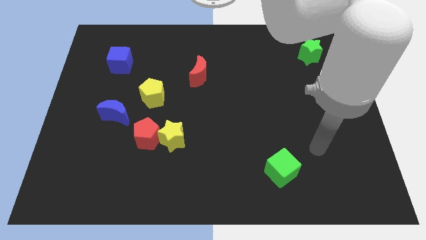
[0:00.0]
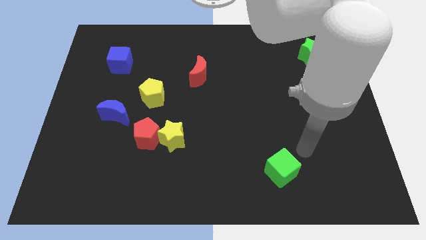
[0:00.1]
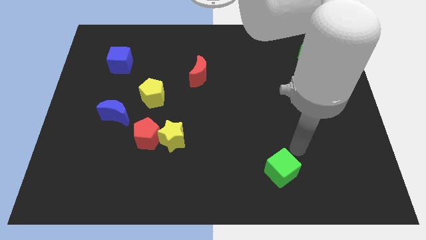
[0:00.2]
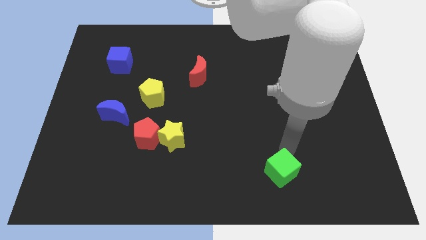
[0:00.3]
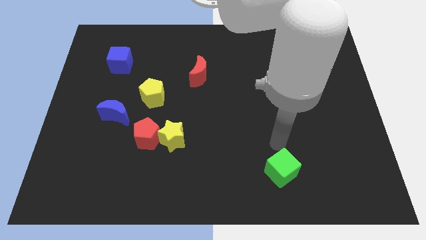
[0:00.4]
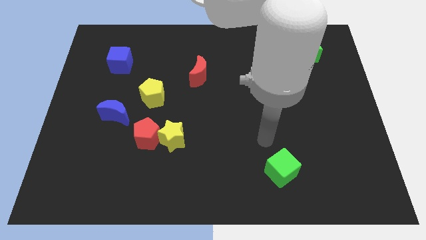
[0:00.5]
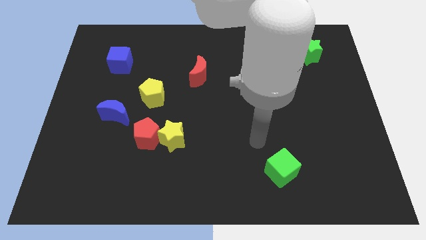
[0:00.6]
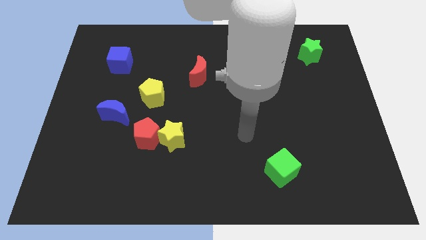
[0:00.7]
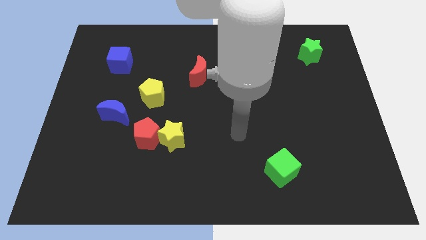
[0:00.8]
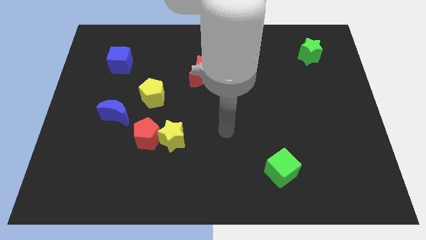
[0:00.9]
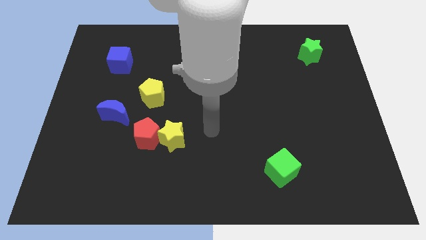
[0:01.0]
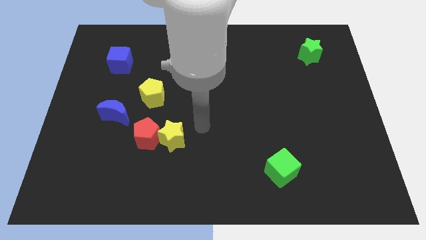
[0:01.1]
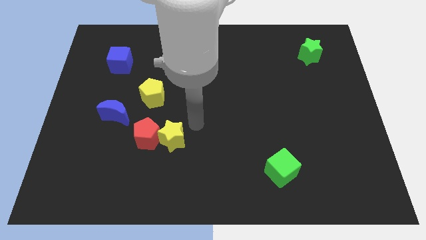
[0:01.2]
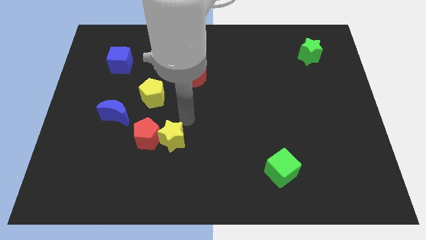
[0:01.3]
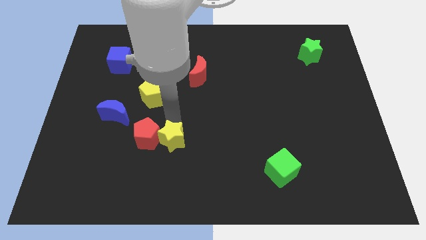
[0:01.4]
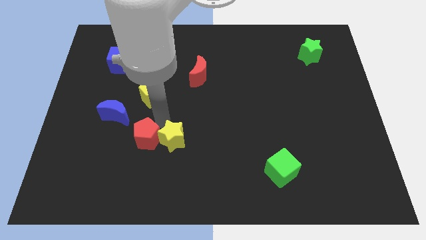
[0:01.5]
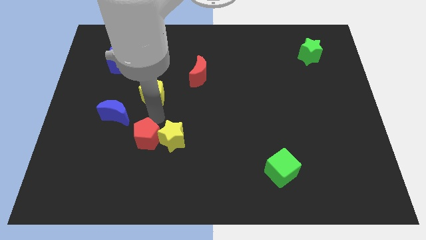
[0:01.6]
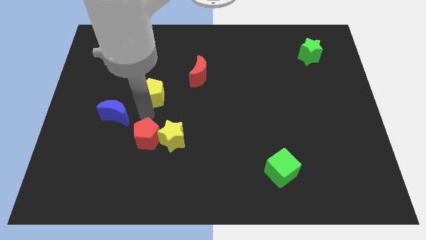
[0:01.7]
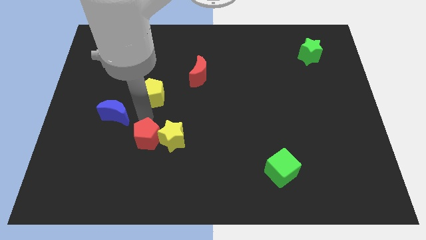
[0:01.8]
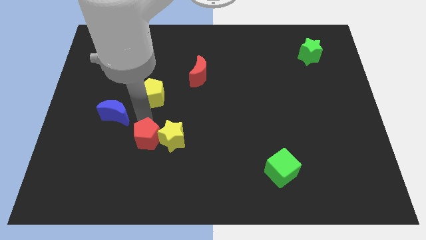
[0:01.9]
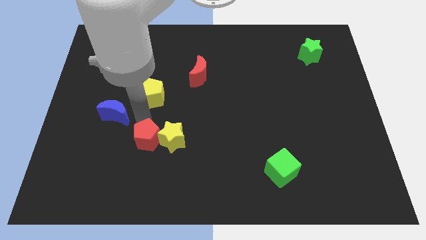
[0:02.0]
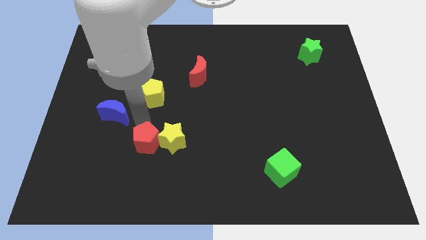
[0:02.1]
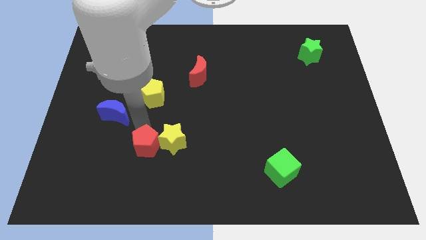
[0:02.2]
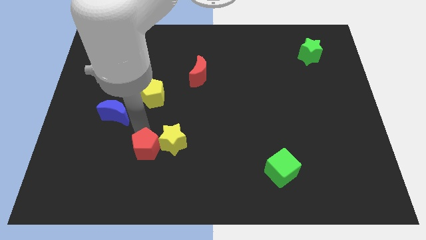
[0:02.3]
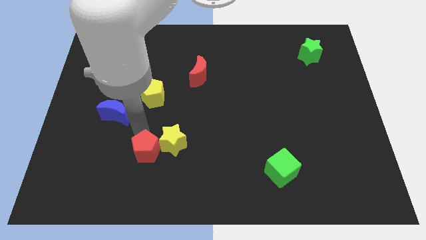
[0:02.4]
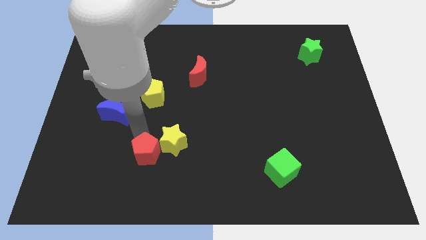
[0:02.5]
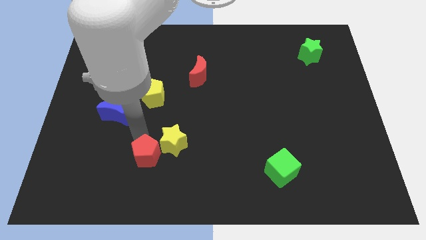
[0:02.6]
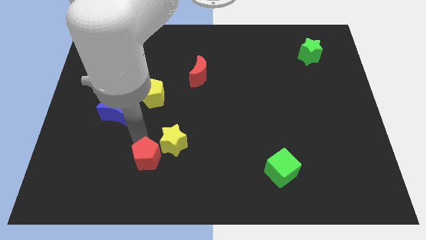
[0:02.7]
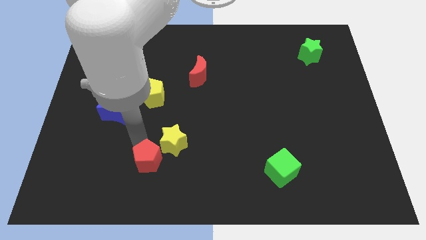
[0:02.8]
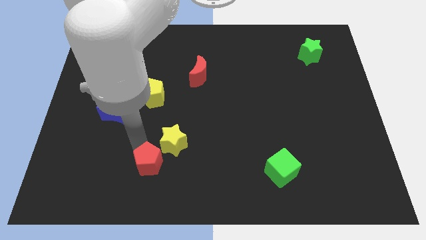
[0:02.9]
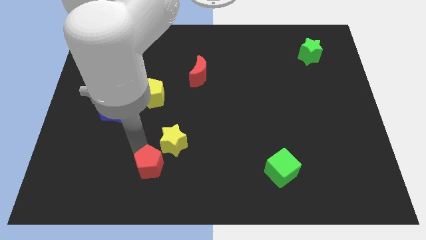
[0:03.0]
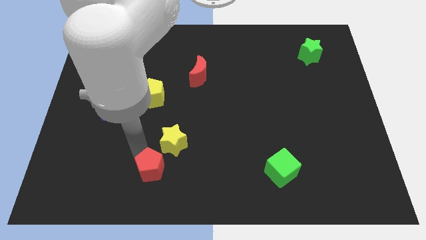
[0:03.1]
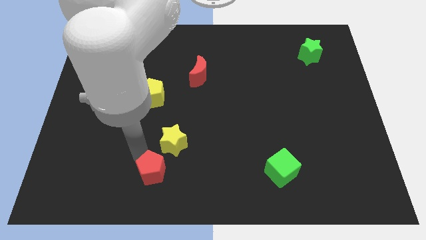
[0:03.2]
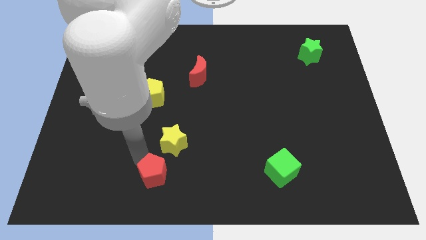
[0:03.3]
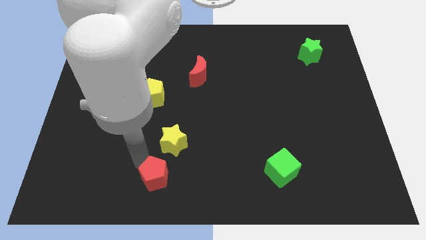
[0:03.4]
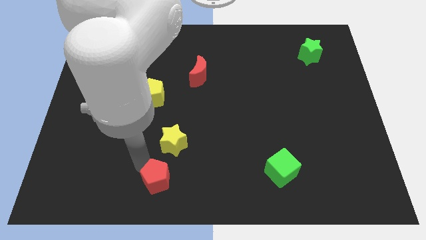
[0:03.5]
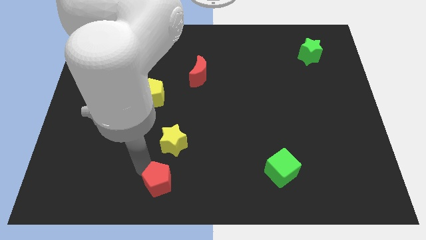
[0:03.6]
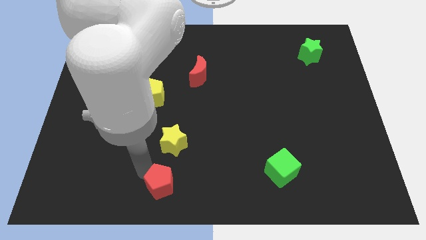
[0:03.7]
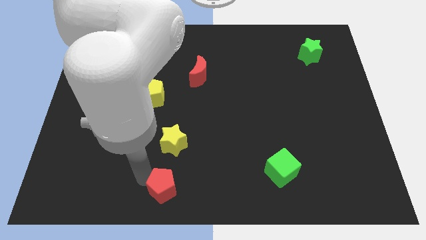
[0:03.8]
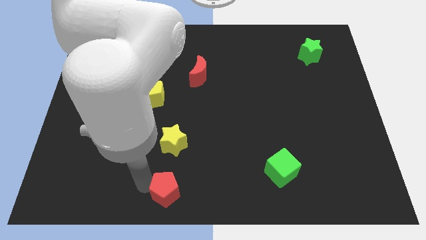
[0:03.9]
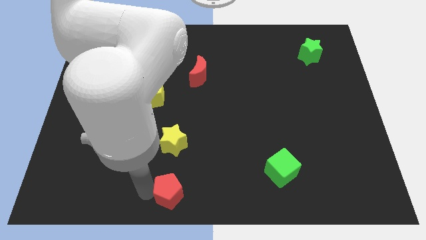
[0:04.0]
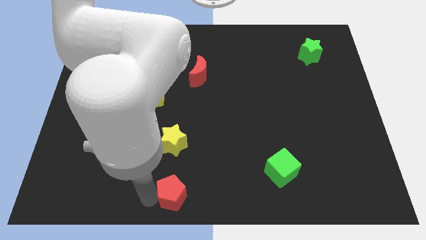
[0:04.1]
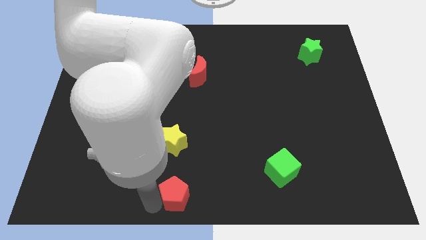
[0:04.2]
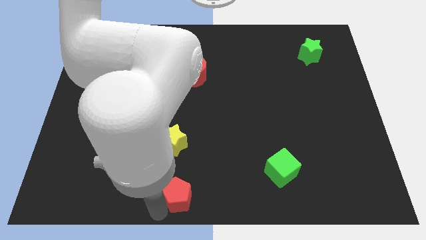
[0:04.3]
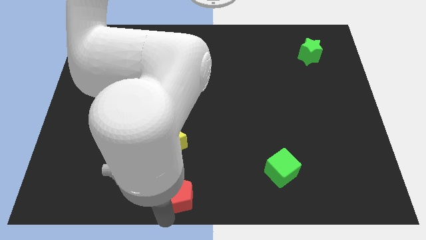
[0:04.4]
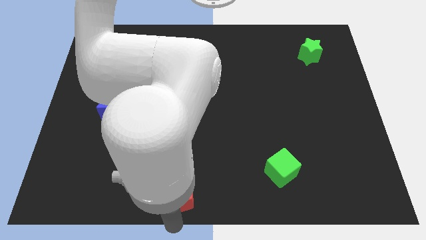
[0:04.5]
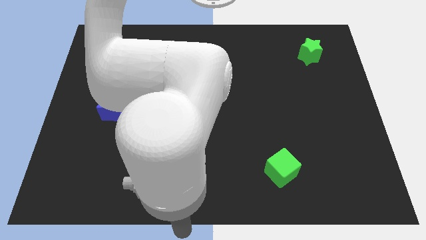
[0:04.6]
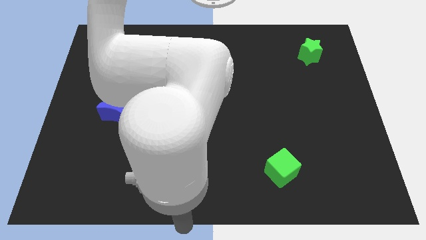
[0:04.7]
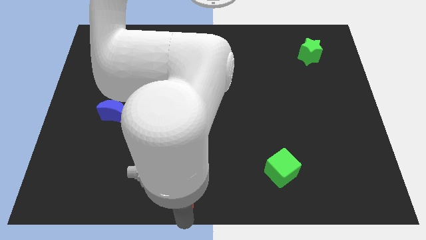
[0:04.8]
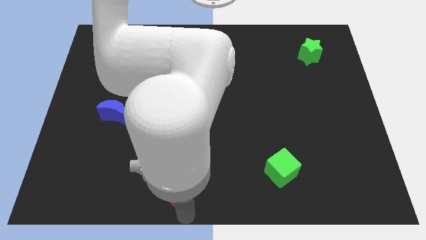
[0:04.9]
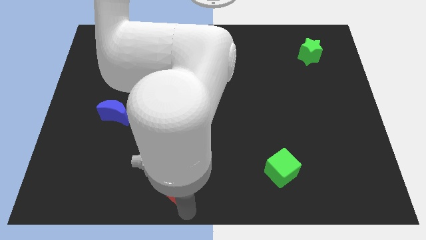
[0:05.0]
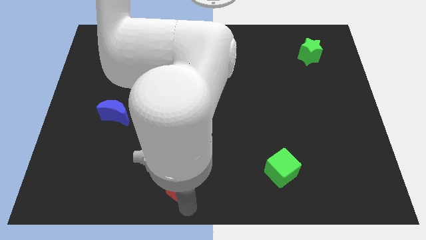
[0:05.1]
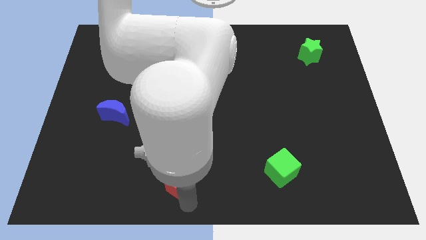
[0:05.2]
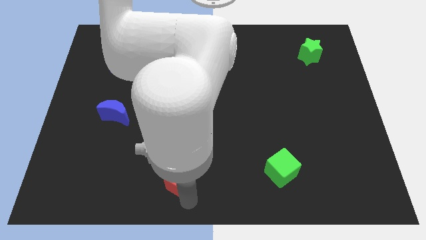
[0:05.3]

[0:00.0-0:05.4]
put the red pentagon to the bottom right of the yellow star
